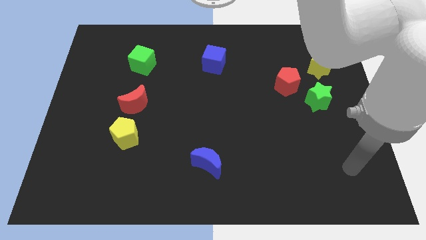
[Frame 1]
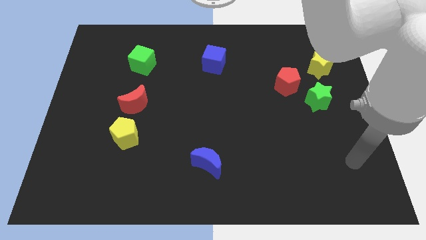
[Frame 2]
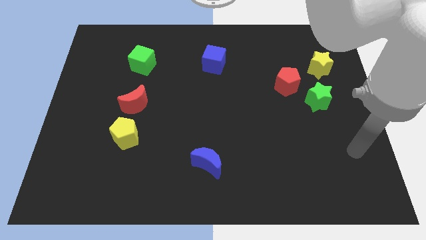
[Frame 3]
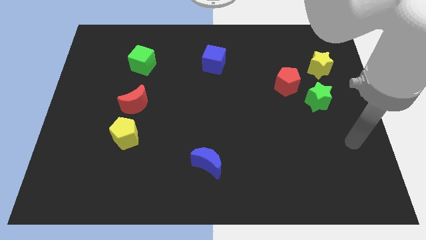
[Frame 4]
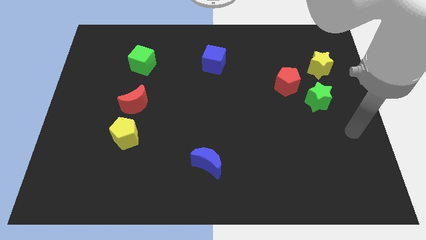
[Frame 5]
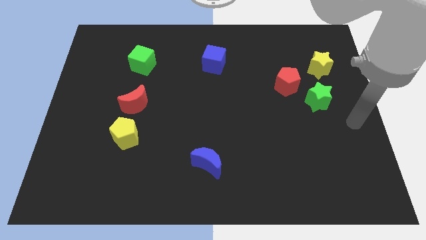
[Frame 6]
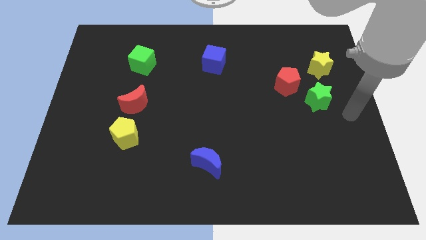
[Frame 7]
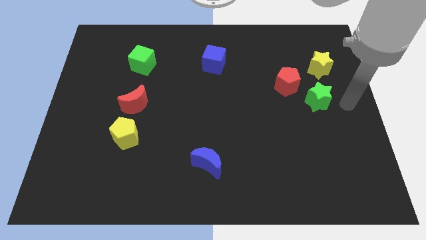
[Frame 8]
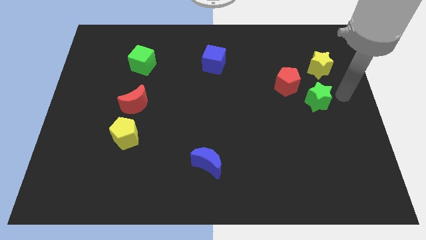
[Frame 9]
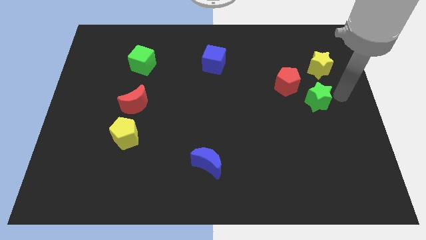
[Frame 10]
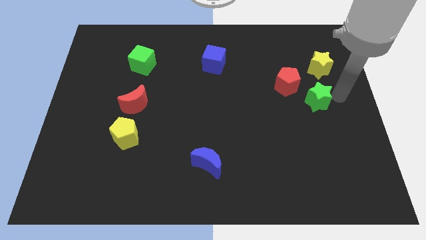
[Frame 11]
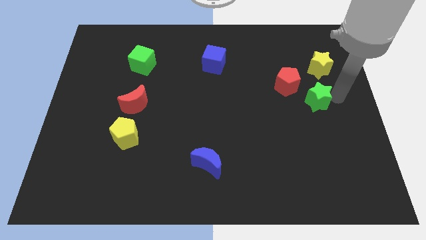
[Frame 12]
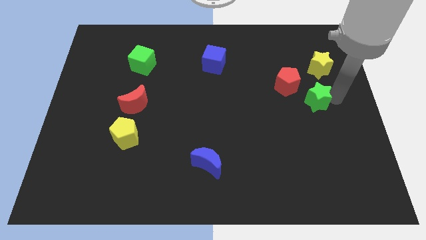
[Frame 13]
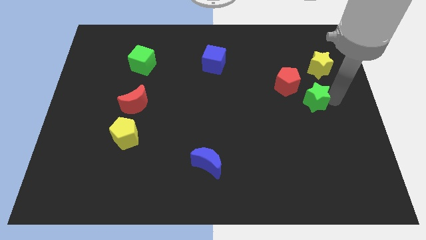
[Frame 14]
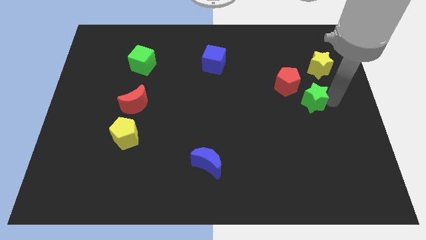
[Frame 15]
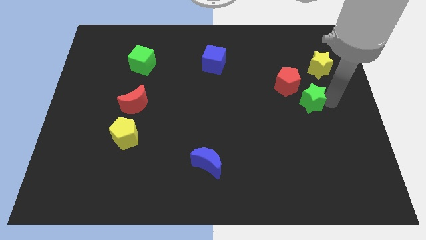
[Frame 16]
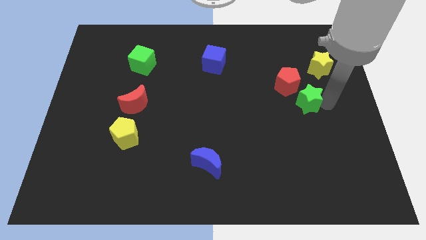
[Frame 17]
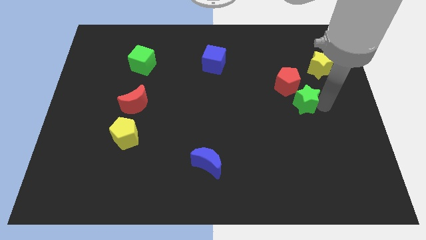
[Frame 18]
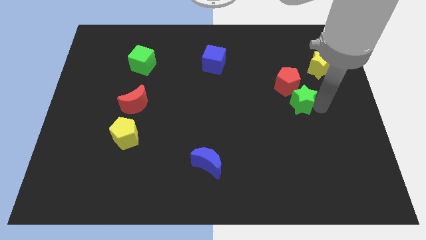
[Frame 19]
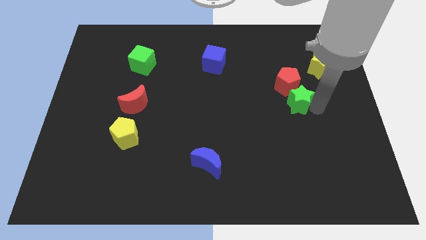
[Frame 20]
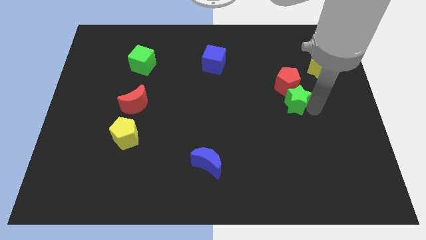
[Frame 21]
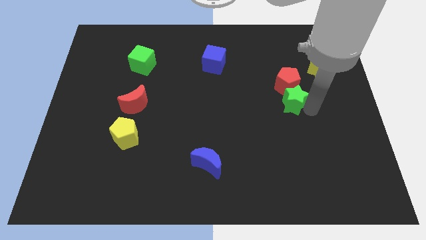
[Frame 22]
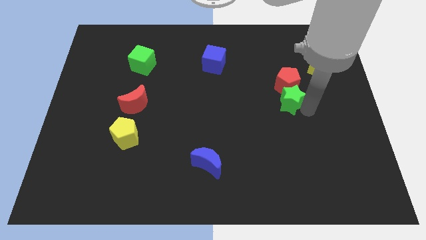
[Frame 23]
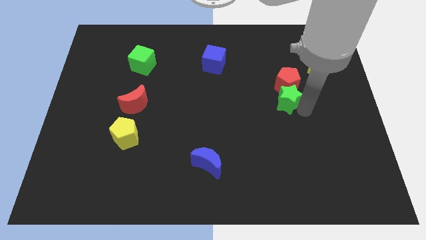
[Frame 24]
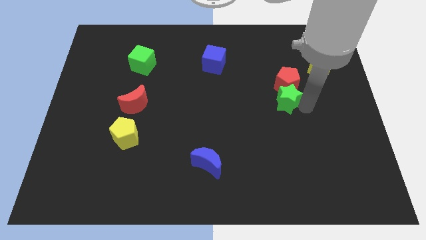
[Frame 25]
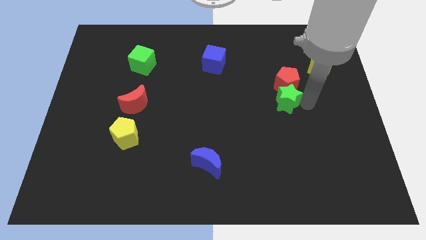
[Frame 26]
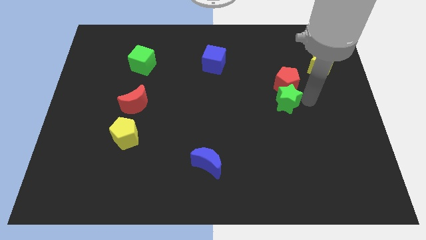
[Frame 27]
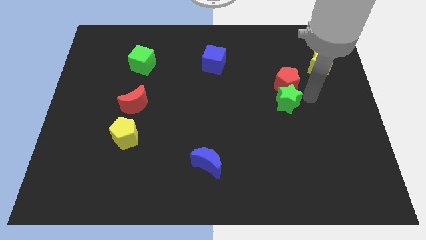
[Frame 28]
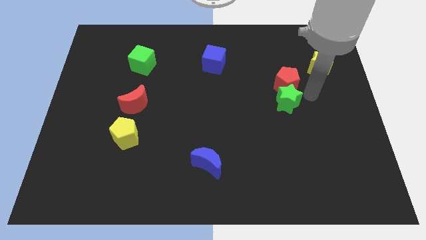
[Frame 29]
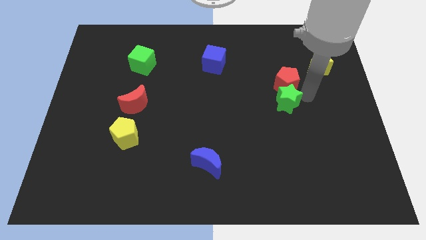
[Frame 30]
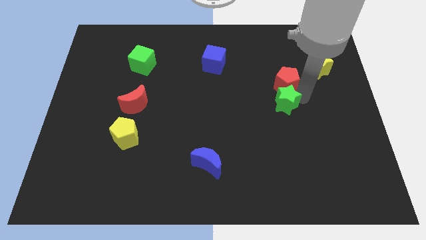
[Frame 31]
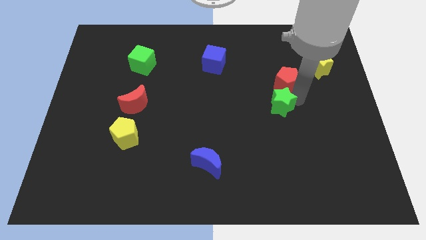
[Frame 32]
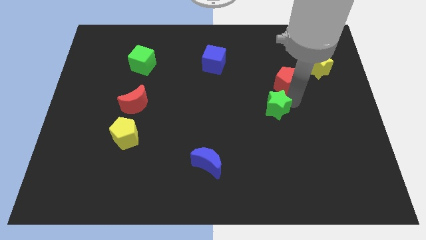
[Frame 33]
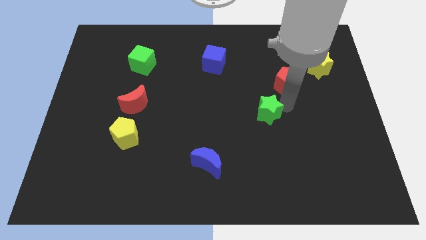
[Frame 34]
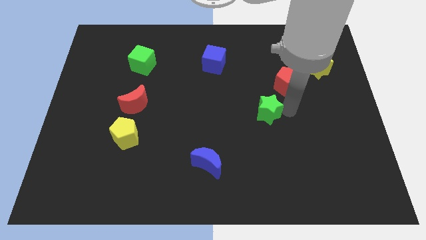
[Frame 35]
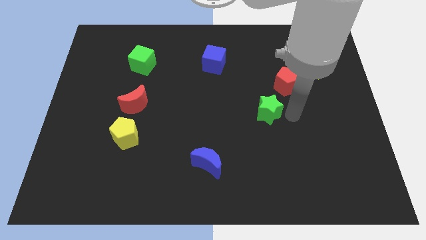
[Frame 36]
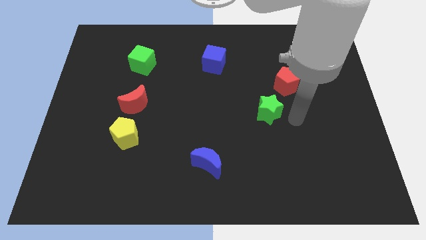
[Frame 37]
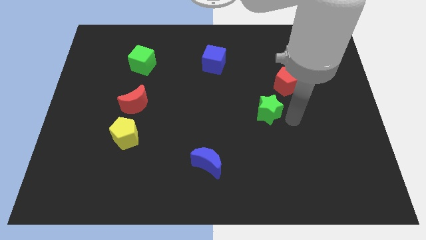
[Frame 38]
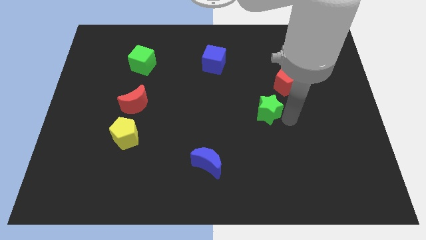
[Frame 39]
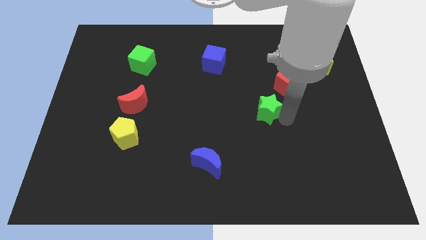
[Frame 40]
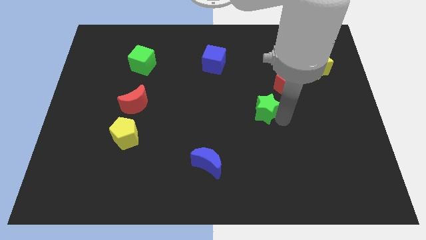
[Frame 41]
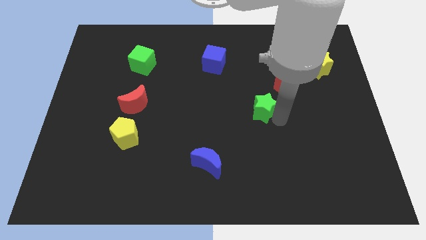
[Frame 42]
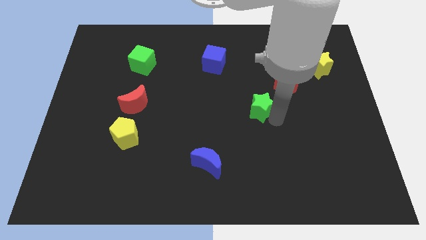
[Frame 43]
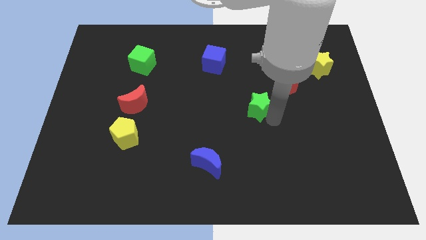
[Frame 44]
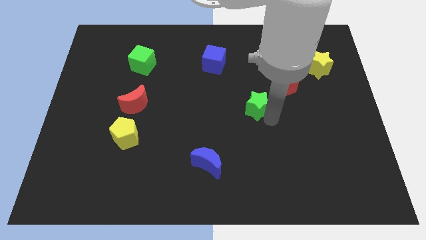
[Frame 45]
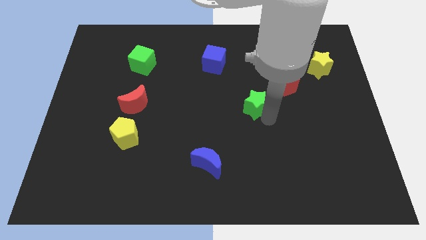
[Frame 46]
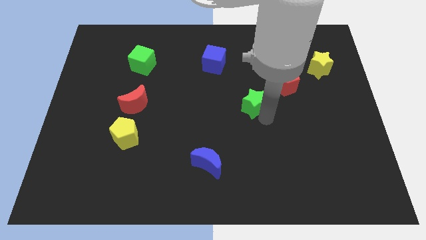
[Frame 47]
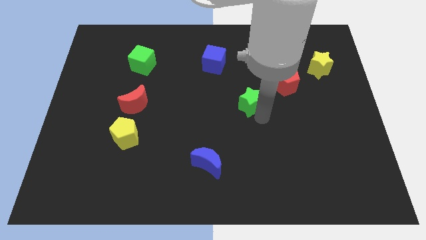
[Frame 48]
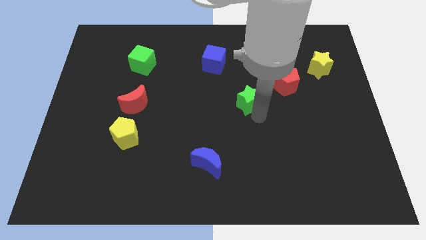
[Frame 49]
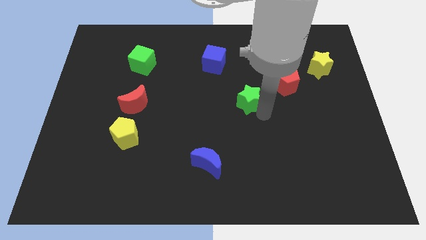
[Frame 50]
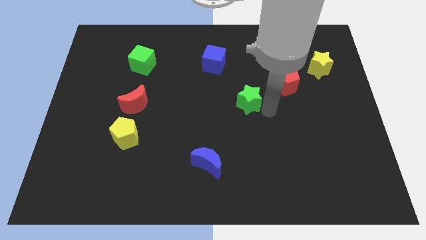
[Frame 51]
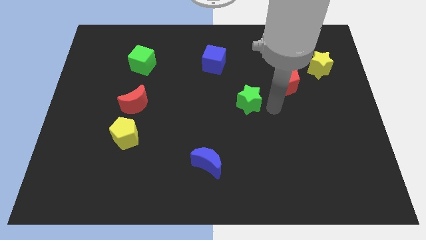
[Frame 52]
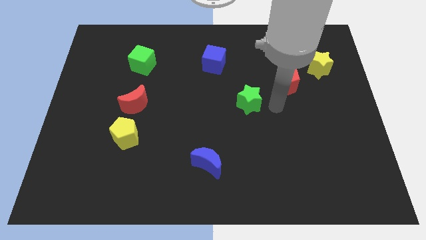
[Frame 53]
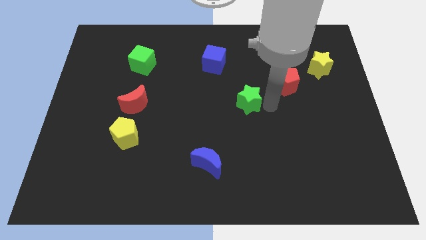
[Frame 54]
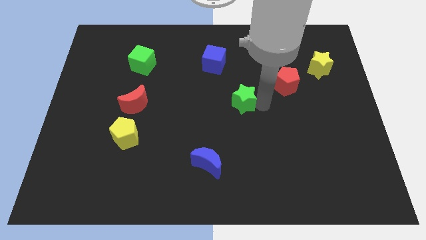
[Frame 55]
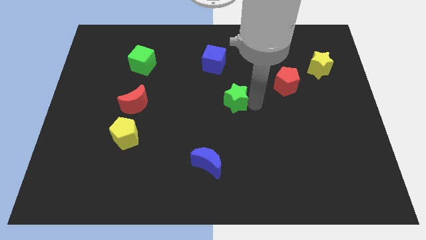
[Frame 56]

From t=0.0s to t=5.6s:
slide the green star to the left

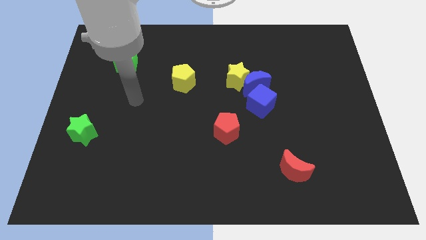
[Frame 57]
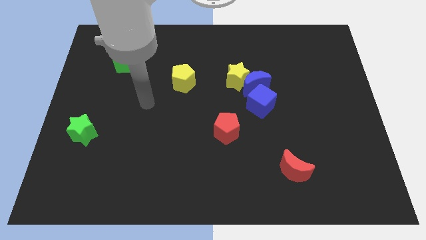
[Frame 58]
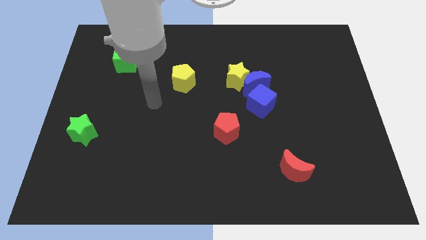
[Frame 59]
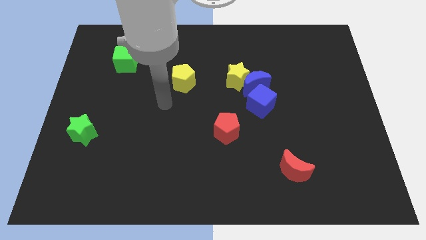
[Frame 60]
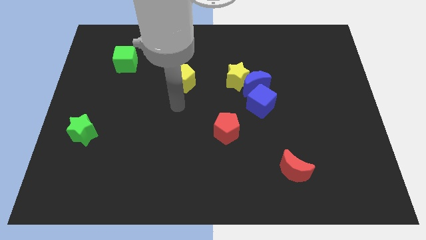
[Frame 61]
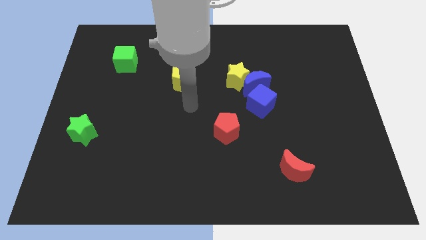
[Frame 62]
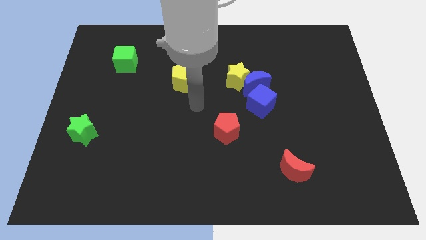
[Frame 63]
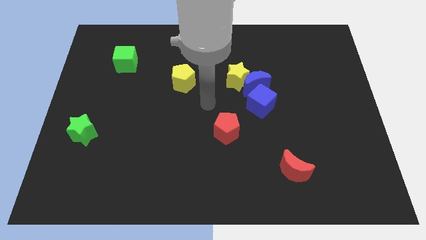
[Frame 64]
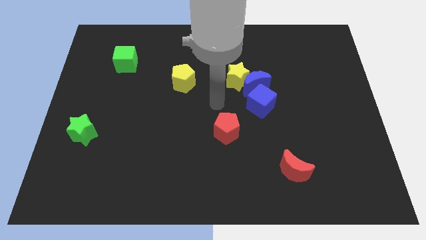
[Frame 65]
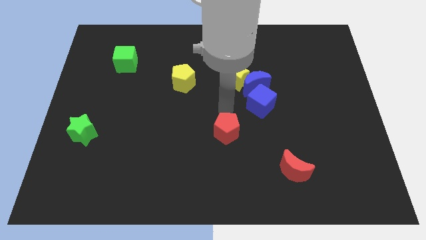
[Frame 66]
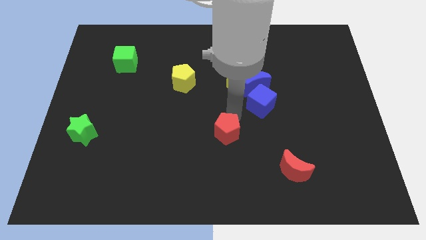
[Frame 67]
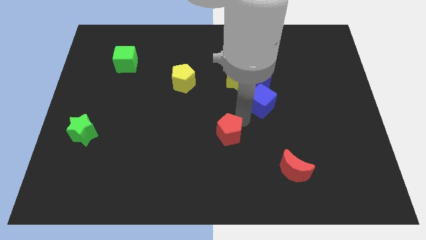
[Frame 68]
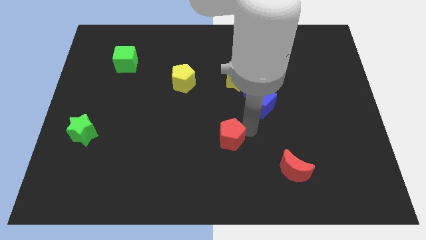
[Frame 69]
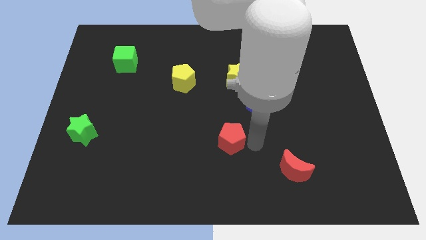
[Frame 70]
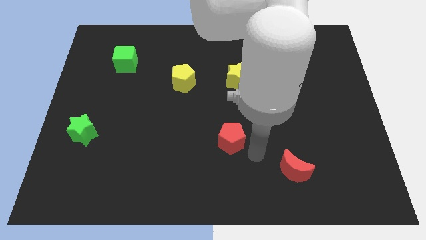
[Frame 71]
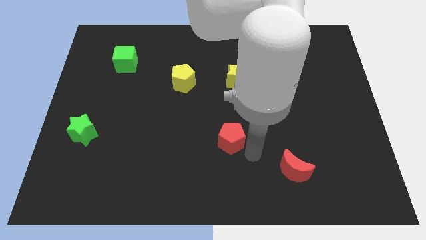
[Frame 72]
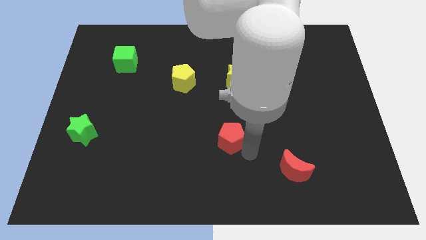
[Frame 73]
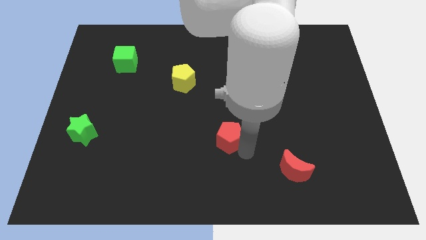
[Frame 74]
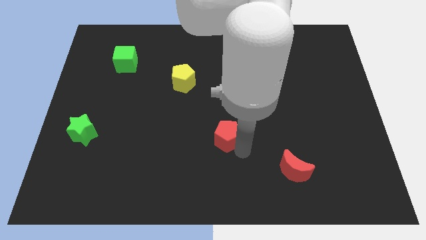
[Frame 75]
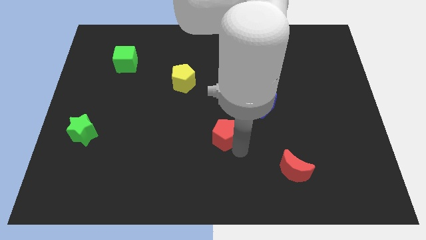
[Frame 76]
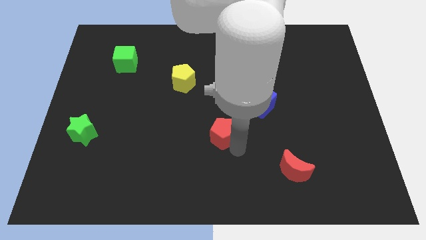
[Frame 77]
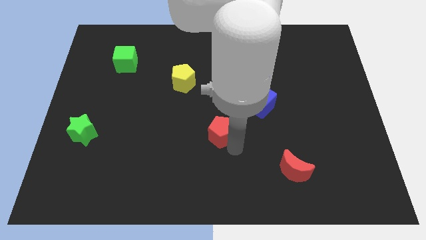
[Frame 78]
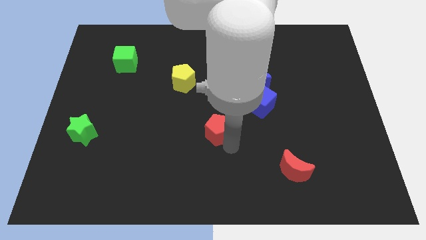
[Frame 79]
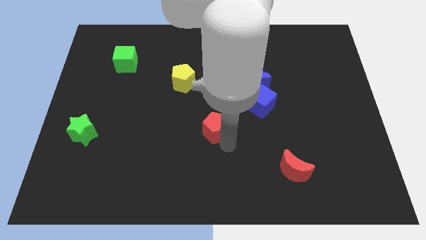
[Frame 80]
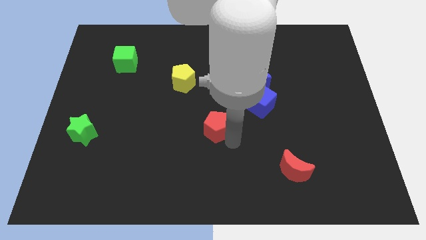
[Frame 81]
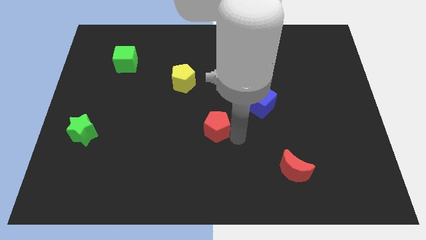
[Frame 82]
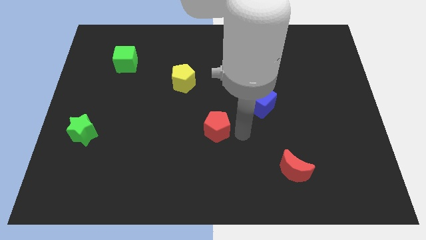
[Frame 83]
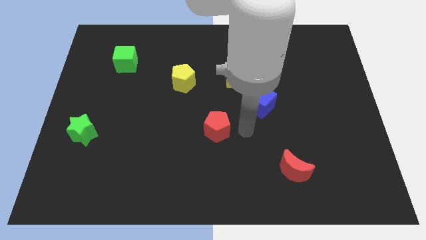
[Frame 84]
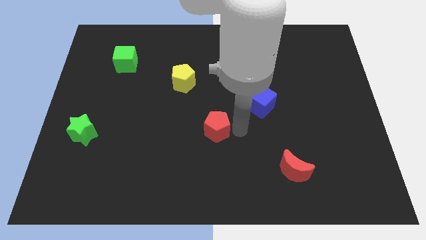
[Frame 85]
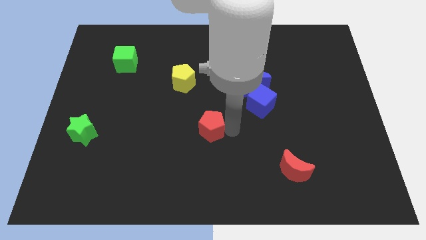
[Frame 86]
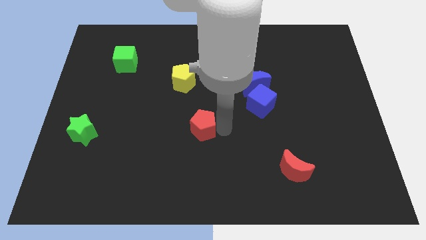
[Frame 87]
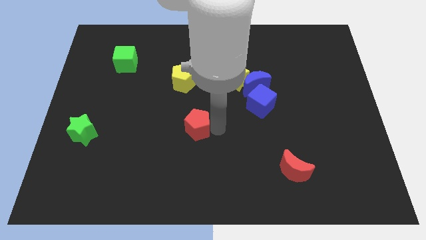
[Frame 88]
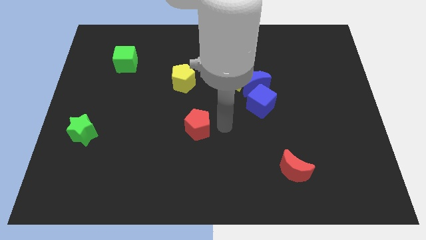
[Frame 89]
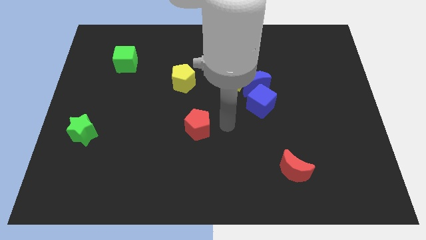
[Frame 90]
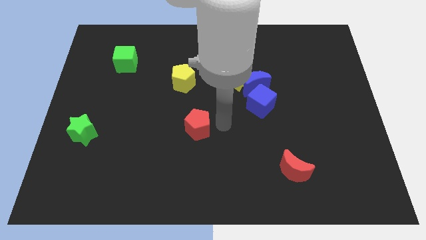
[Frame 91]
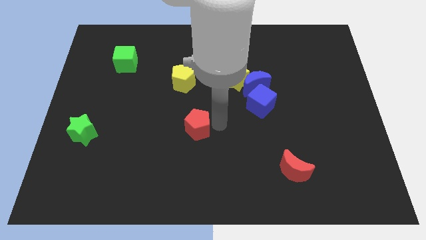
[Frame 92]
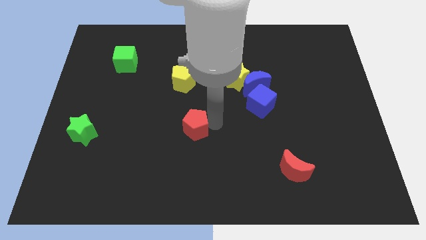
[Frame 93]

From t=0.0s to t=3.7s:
slightly move the red pentagon left
